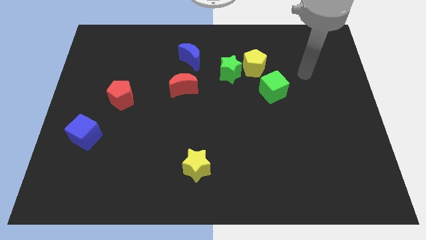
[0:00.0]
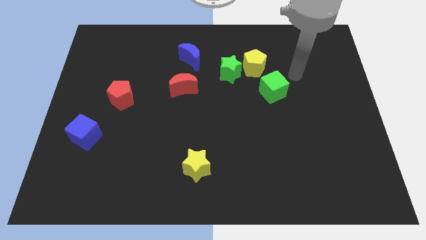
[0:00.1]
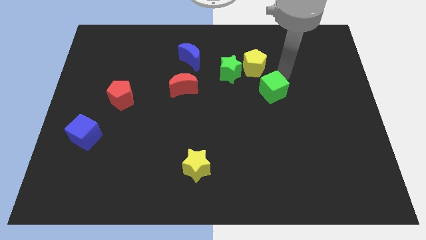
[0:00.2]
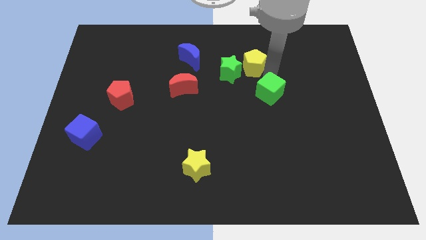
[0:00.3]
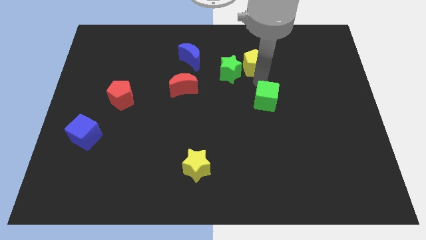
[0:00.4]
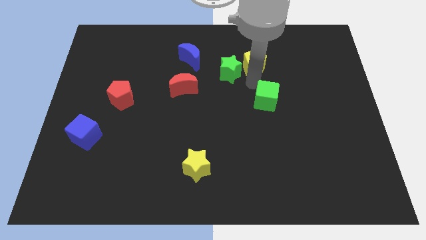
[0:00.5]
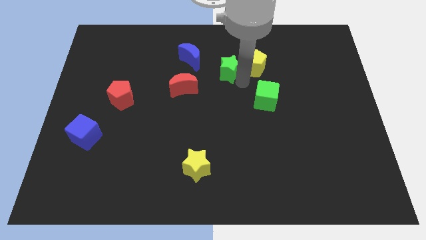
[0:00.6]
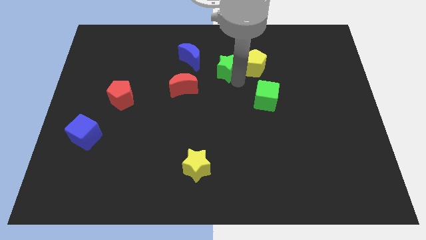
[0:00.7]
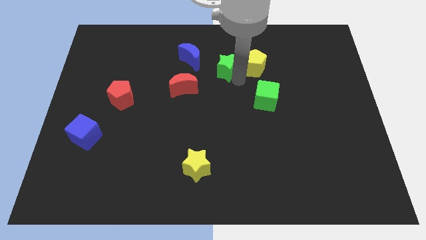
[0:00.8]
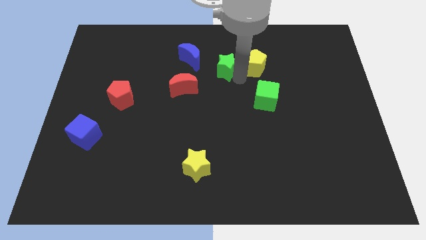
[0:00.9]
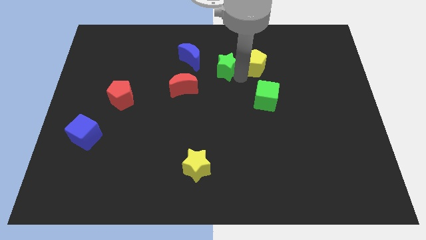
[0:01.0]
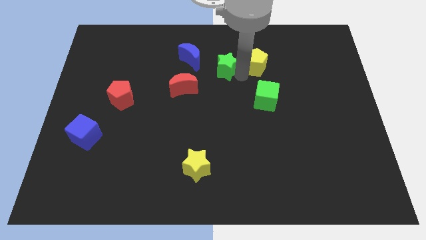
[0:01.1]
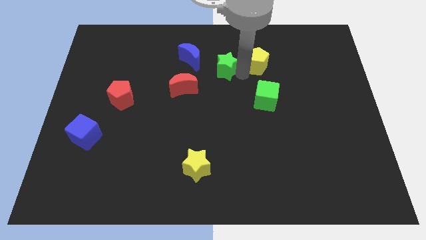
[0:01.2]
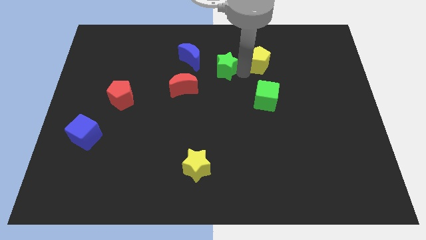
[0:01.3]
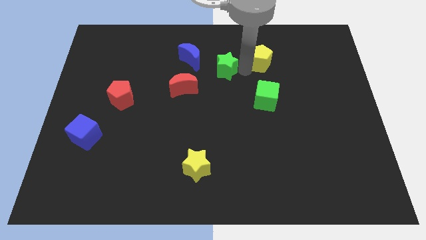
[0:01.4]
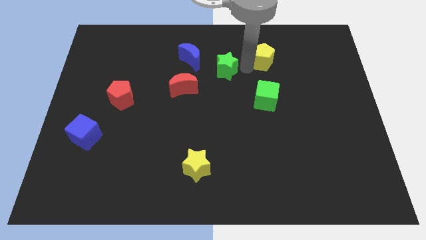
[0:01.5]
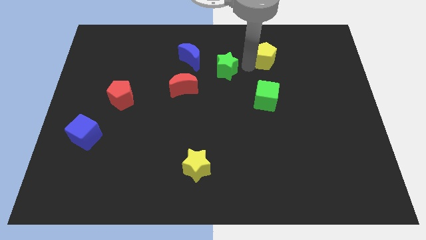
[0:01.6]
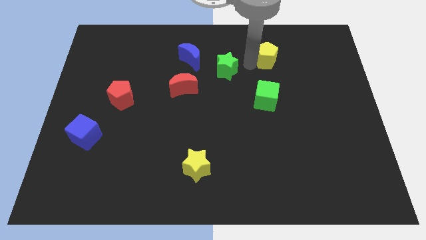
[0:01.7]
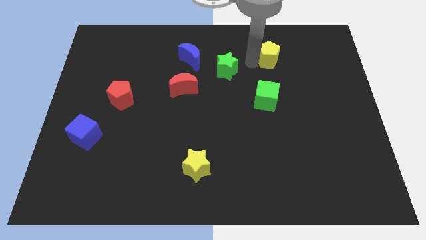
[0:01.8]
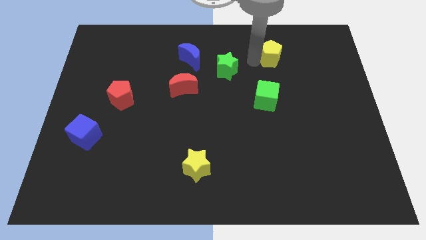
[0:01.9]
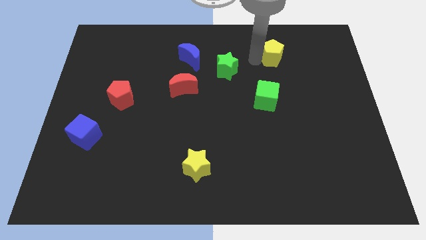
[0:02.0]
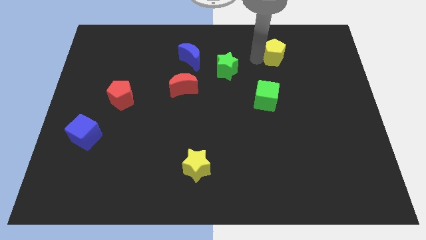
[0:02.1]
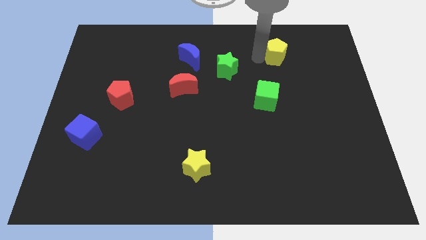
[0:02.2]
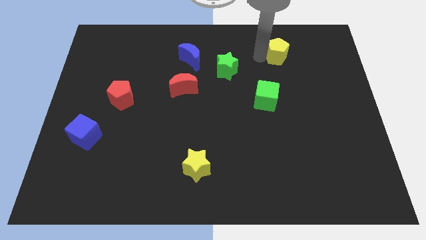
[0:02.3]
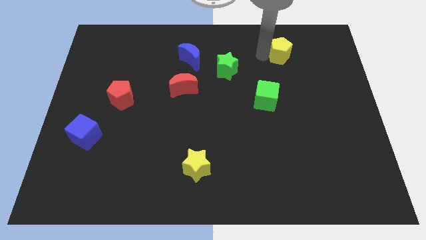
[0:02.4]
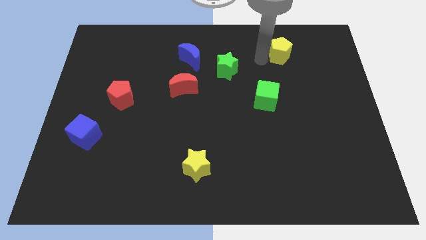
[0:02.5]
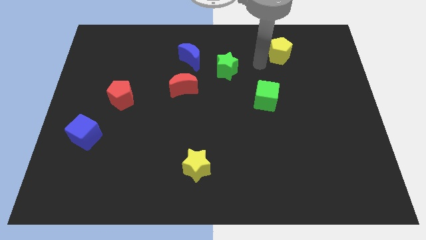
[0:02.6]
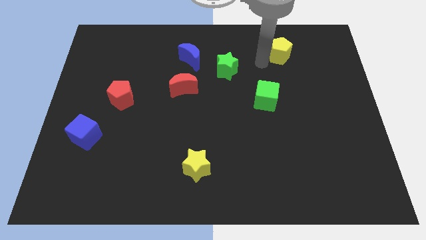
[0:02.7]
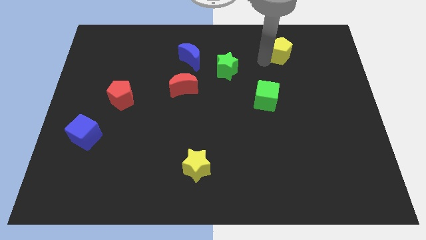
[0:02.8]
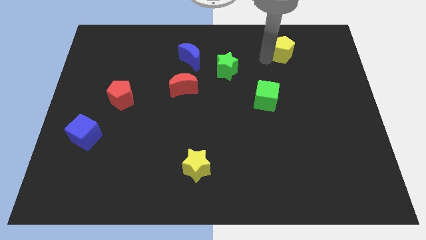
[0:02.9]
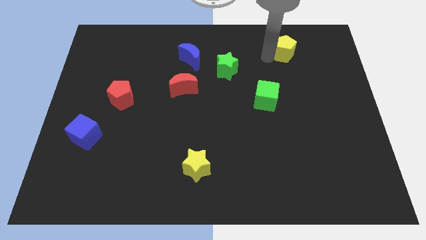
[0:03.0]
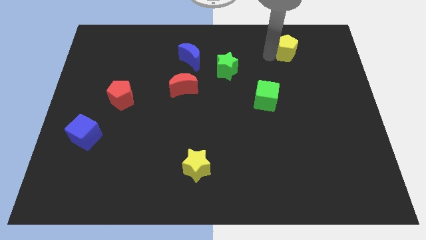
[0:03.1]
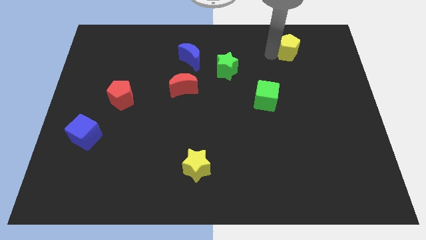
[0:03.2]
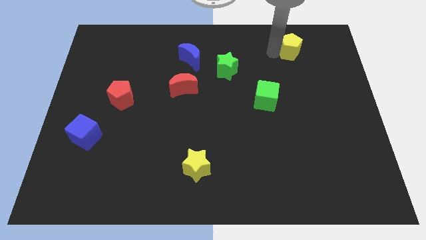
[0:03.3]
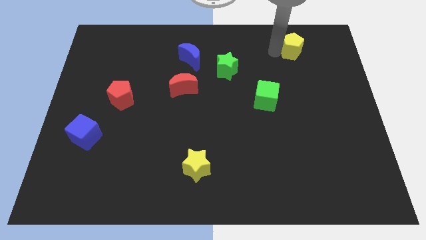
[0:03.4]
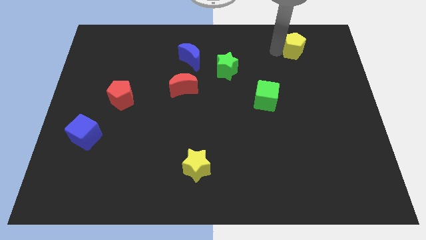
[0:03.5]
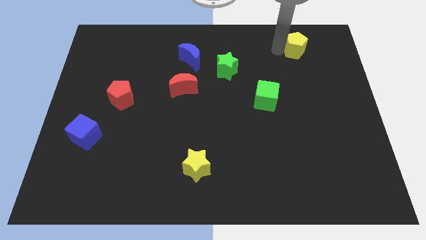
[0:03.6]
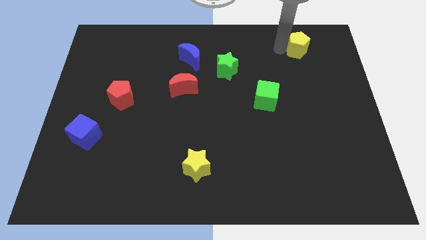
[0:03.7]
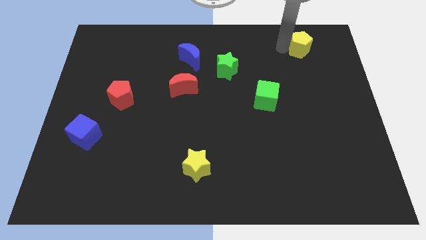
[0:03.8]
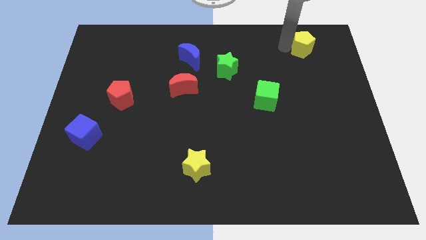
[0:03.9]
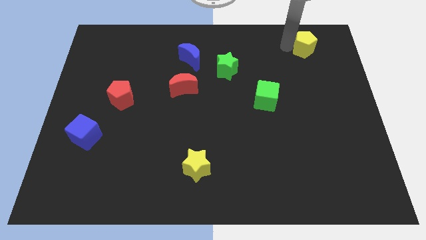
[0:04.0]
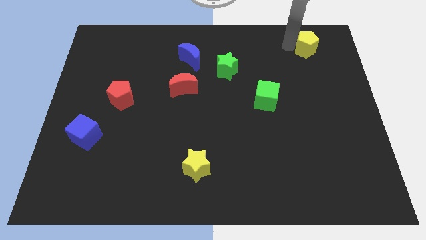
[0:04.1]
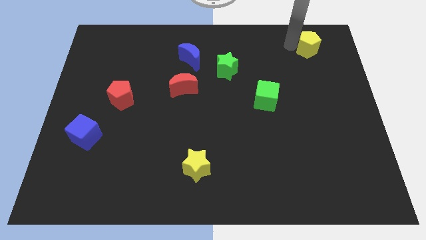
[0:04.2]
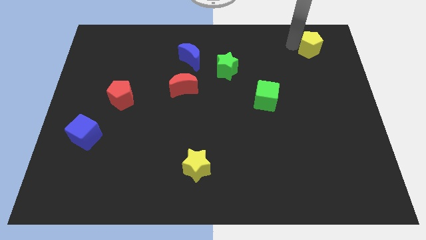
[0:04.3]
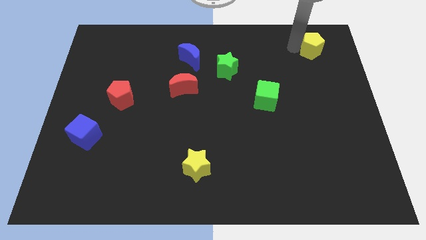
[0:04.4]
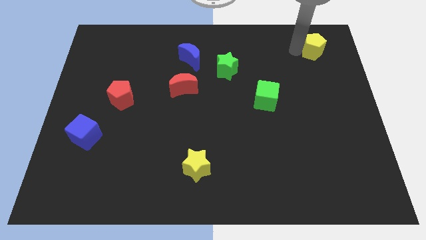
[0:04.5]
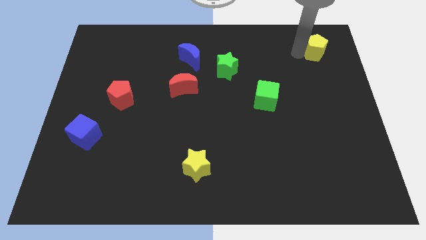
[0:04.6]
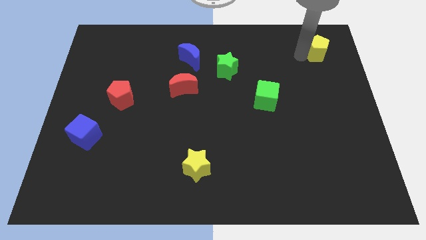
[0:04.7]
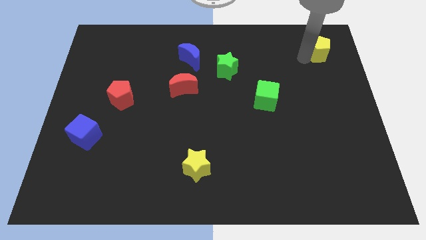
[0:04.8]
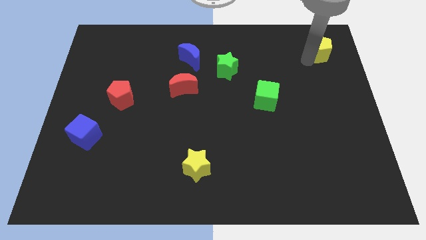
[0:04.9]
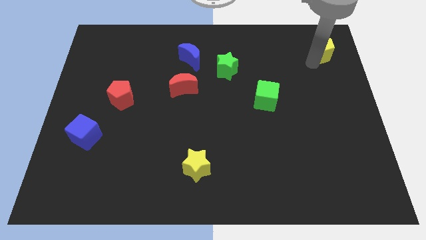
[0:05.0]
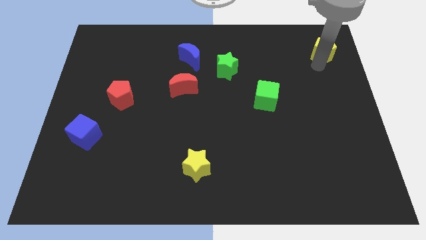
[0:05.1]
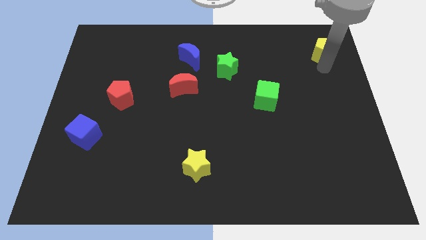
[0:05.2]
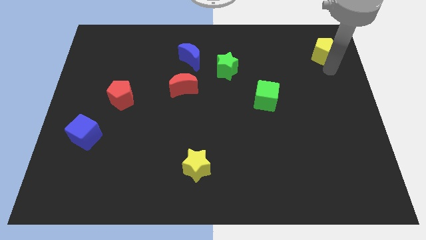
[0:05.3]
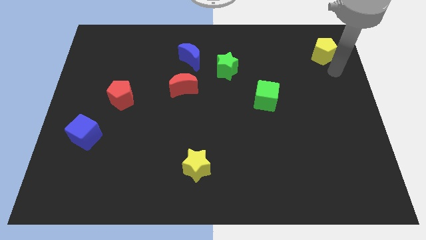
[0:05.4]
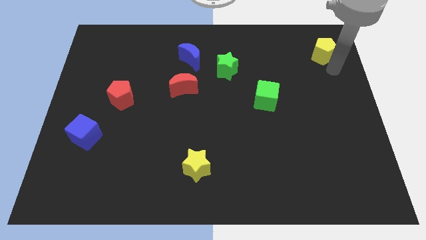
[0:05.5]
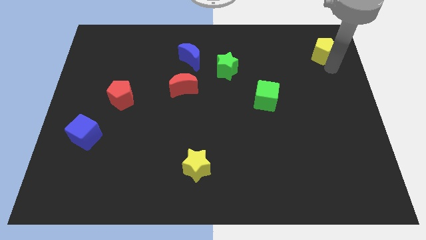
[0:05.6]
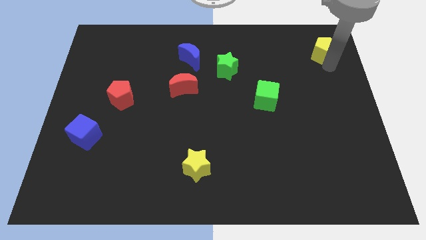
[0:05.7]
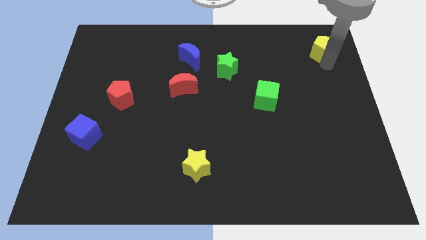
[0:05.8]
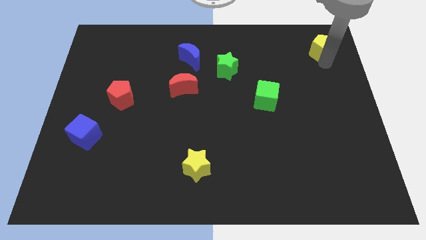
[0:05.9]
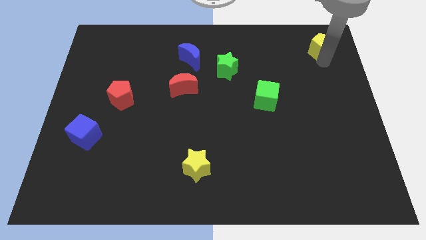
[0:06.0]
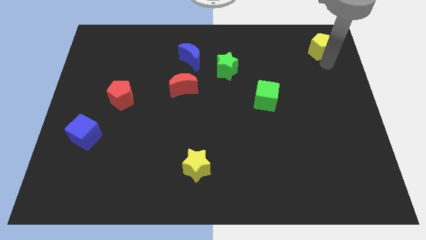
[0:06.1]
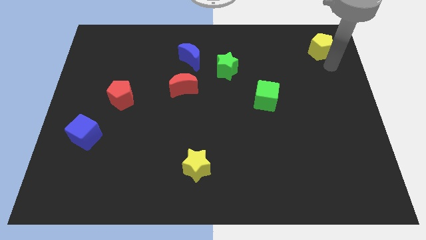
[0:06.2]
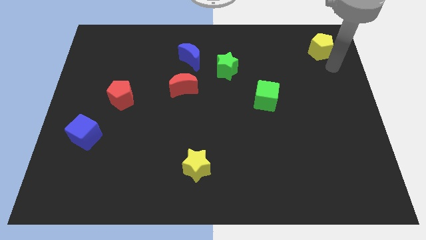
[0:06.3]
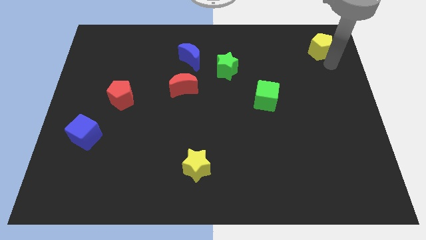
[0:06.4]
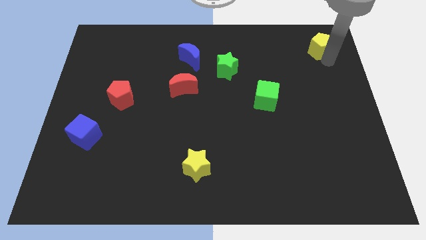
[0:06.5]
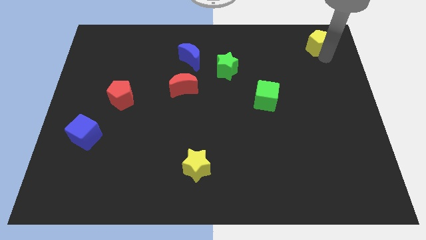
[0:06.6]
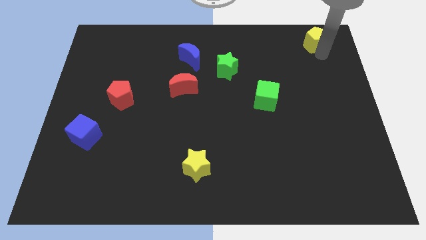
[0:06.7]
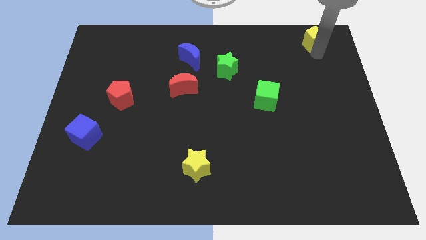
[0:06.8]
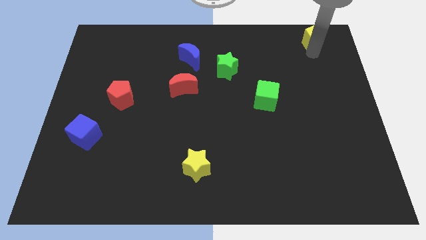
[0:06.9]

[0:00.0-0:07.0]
push the yellow pentagon to the top right

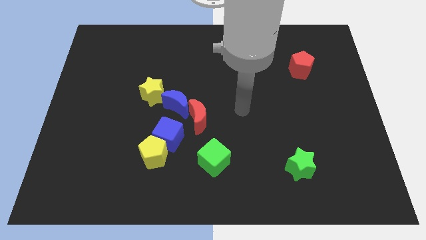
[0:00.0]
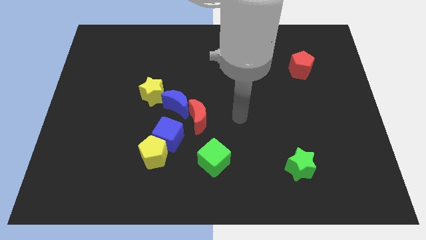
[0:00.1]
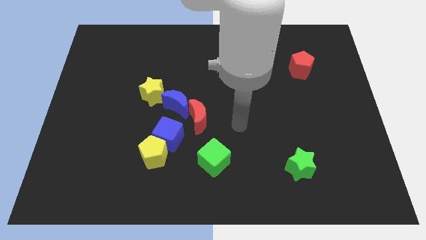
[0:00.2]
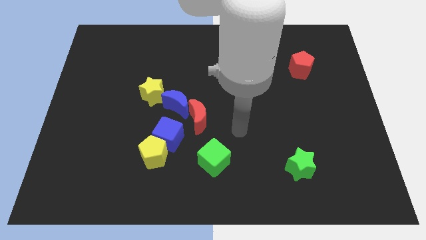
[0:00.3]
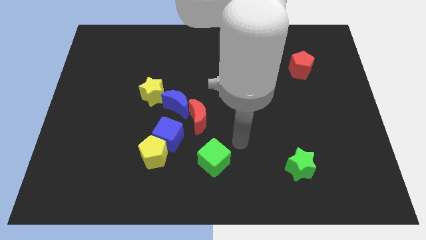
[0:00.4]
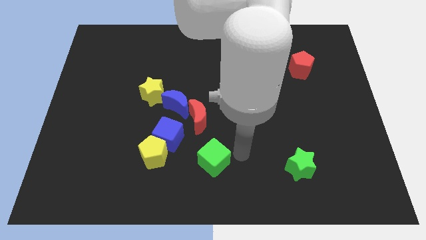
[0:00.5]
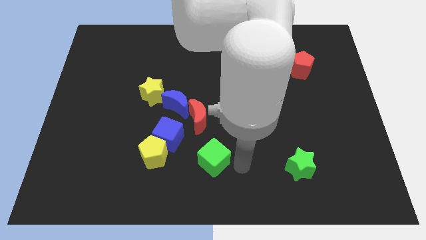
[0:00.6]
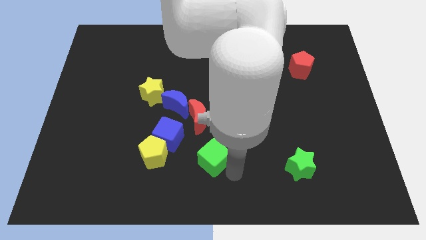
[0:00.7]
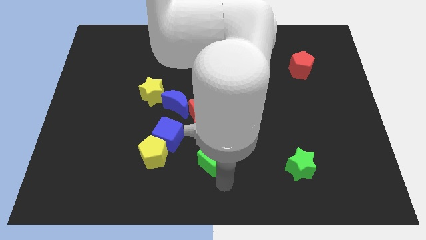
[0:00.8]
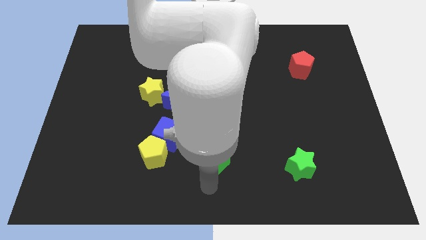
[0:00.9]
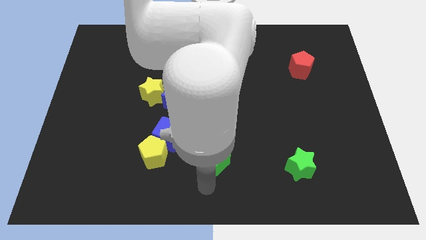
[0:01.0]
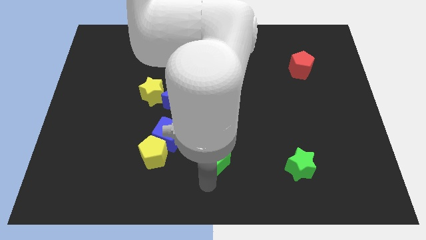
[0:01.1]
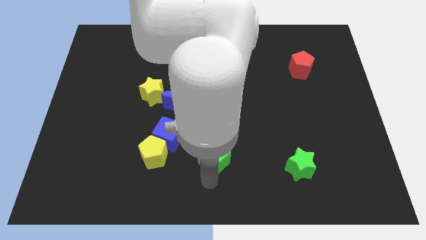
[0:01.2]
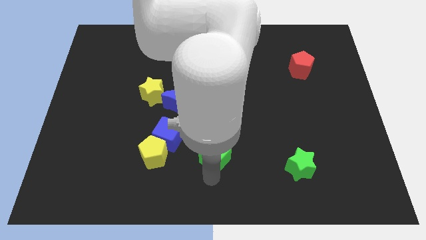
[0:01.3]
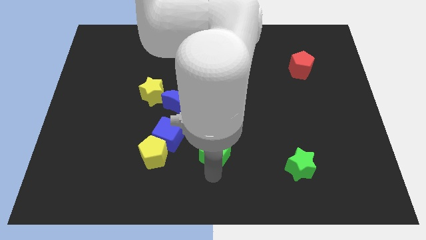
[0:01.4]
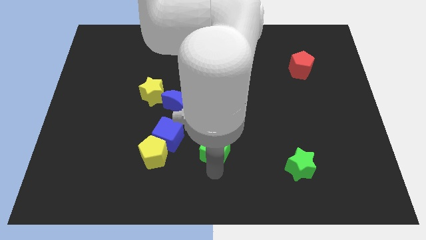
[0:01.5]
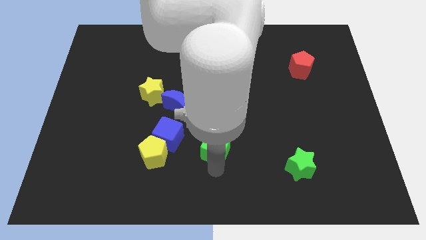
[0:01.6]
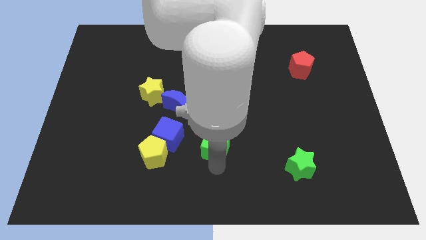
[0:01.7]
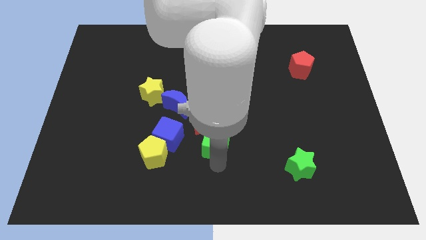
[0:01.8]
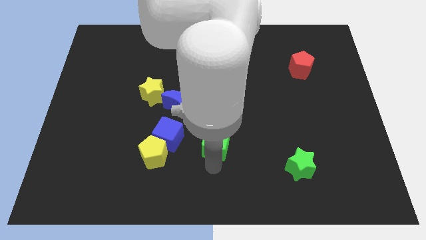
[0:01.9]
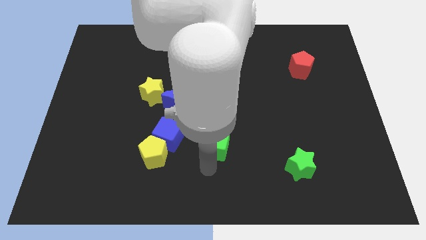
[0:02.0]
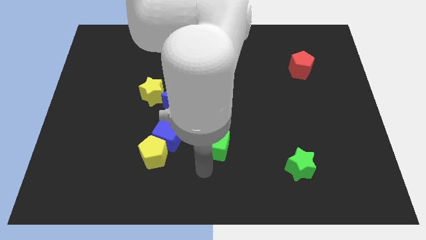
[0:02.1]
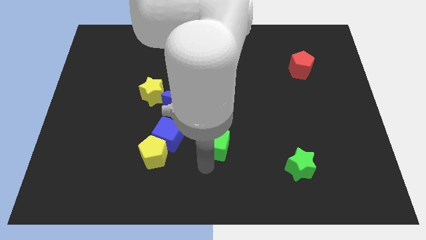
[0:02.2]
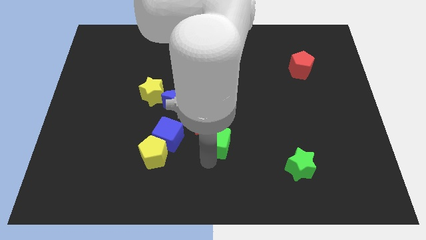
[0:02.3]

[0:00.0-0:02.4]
move the green cube to the center of the board
